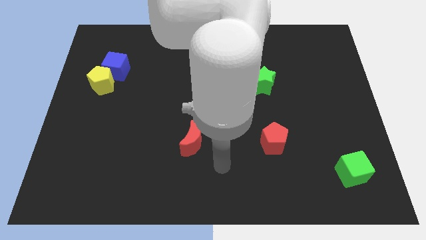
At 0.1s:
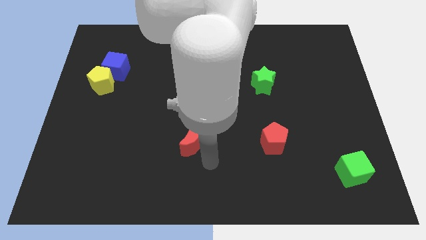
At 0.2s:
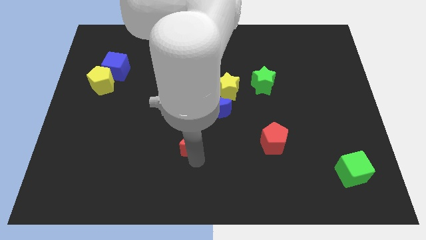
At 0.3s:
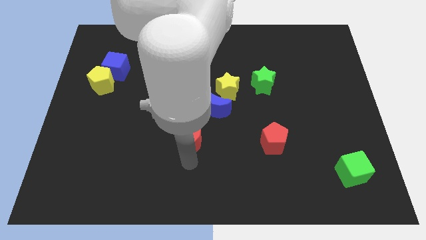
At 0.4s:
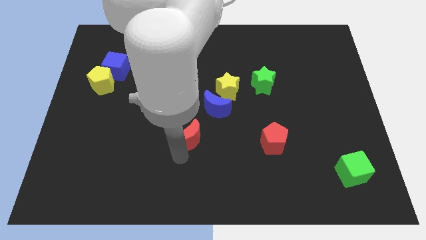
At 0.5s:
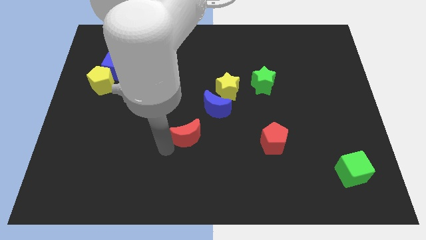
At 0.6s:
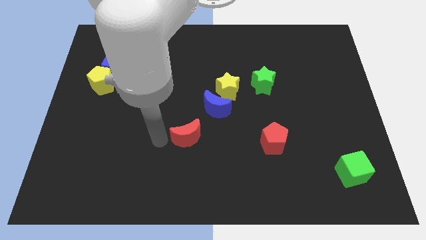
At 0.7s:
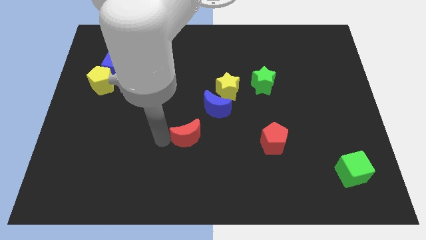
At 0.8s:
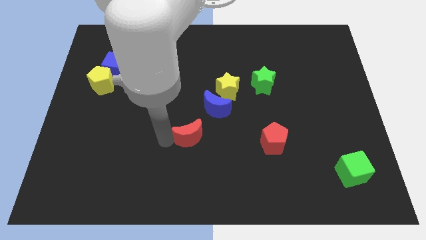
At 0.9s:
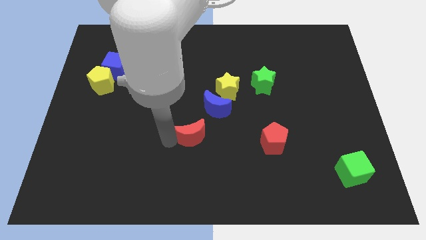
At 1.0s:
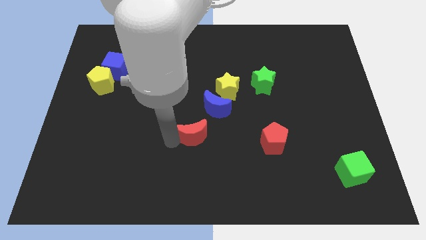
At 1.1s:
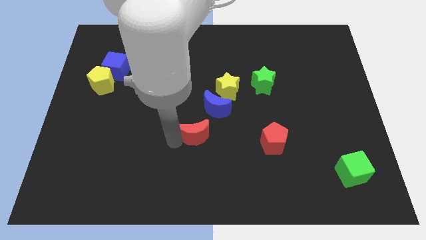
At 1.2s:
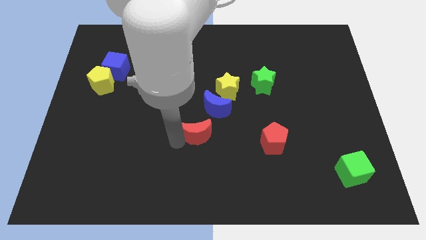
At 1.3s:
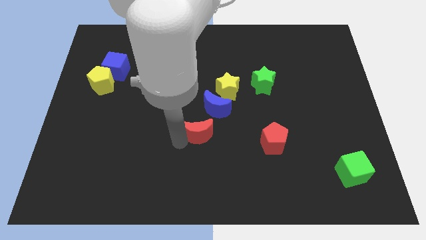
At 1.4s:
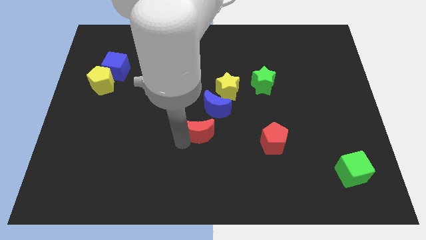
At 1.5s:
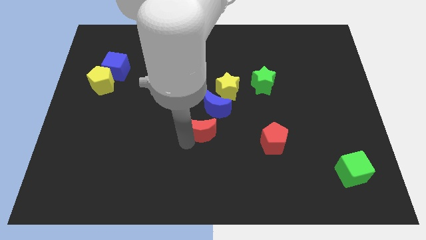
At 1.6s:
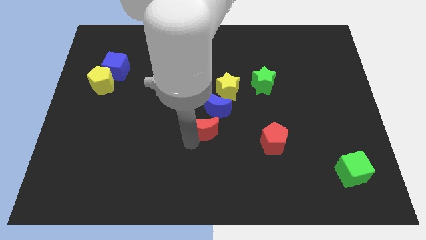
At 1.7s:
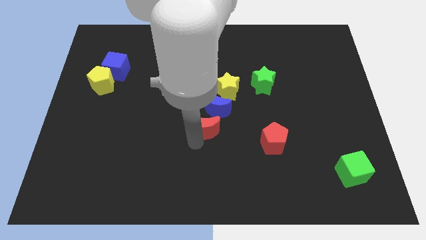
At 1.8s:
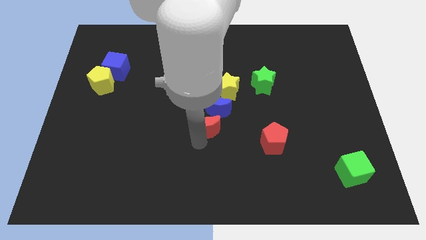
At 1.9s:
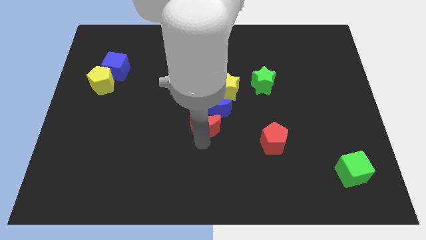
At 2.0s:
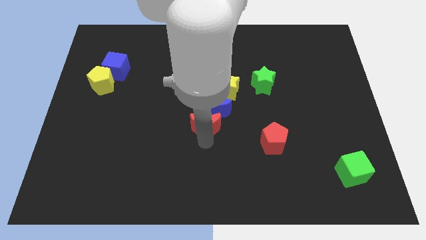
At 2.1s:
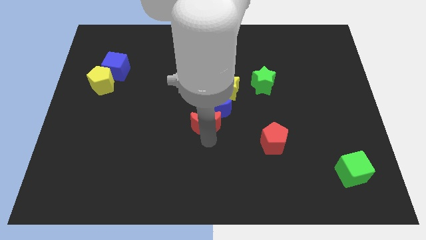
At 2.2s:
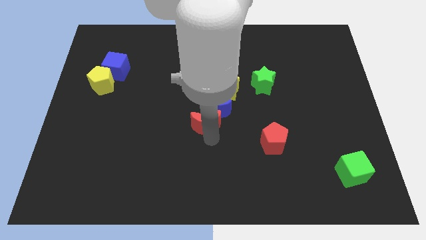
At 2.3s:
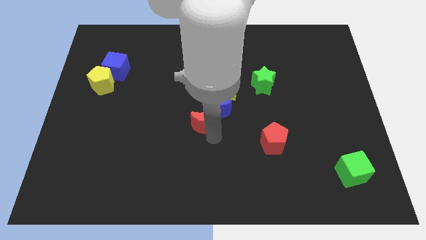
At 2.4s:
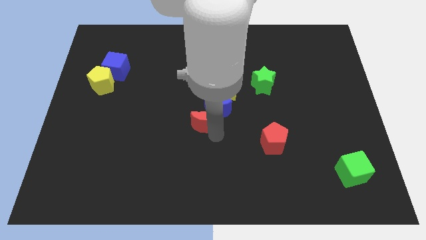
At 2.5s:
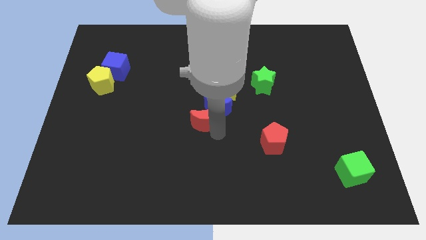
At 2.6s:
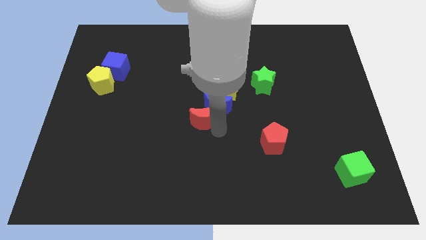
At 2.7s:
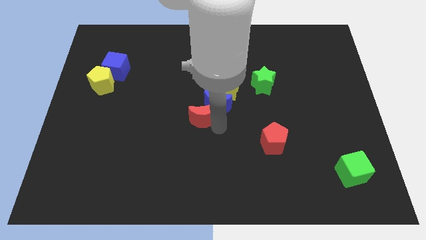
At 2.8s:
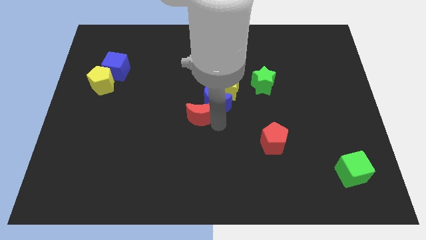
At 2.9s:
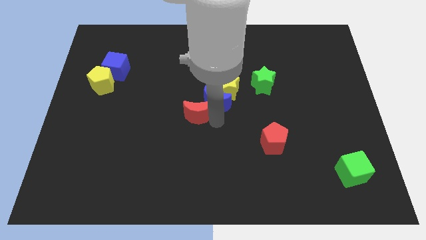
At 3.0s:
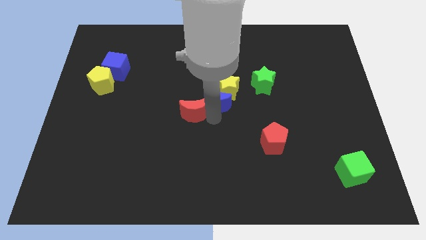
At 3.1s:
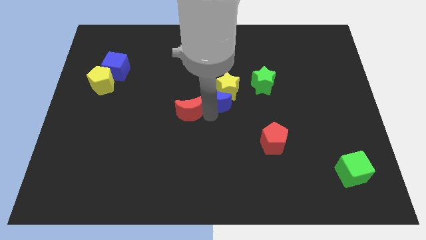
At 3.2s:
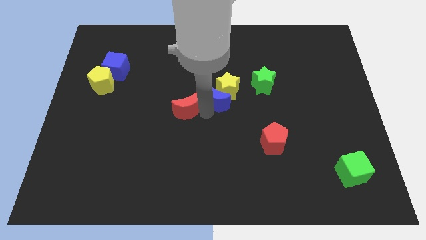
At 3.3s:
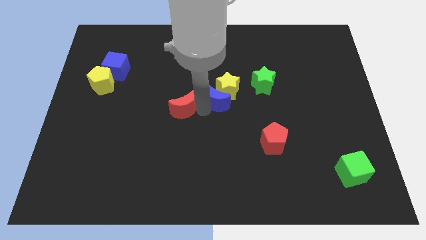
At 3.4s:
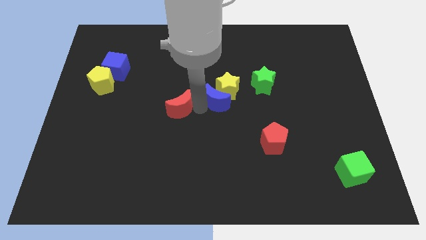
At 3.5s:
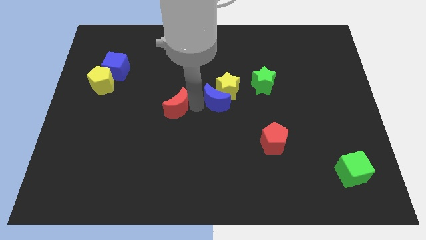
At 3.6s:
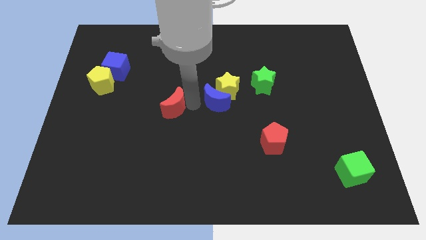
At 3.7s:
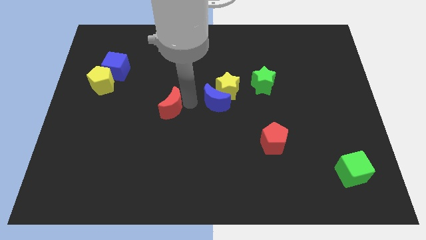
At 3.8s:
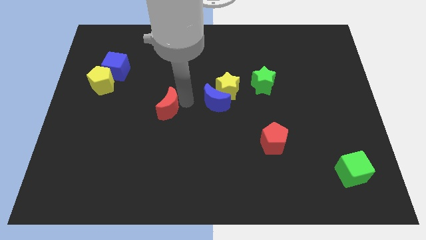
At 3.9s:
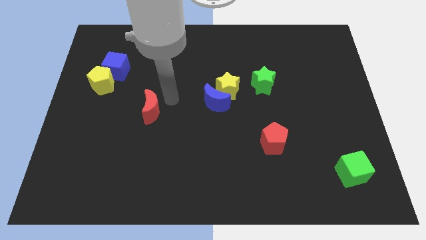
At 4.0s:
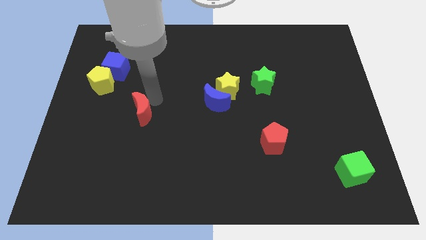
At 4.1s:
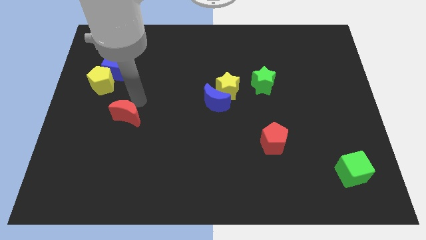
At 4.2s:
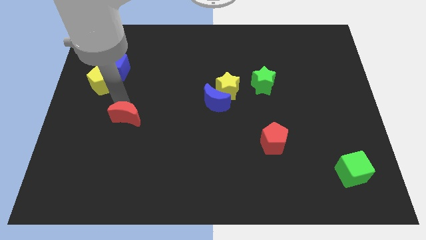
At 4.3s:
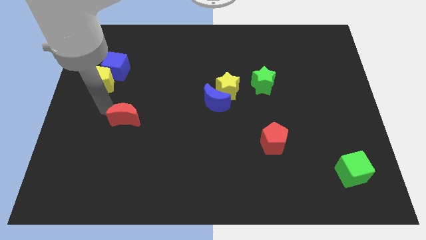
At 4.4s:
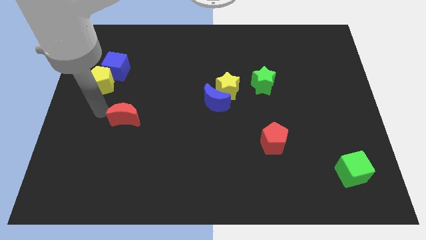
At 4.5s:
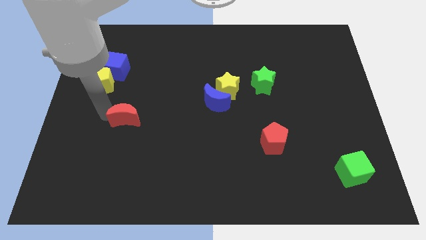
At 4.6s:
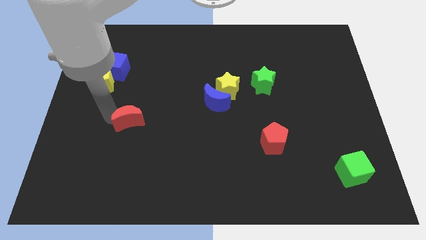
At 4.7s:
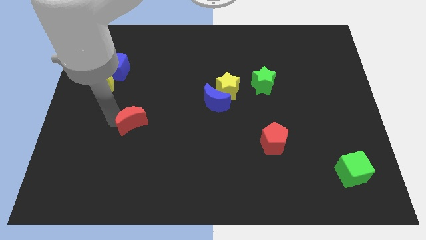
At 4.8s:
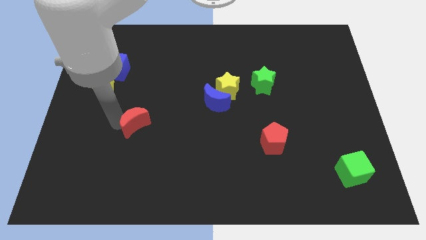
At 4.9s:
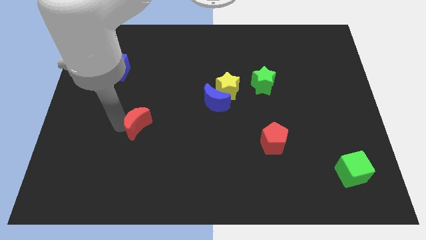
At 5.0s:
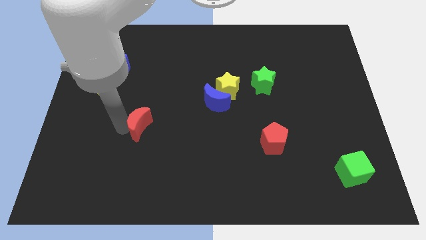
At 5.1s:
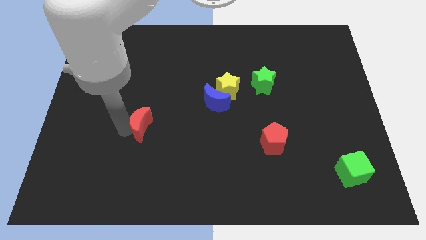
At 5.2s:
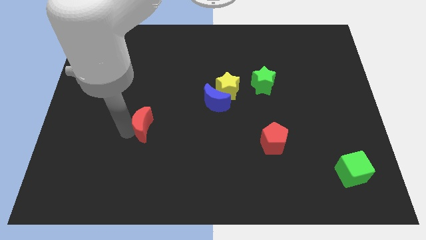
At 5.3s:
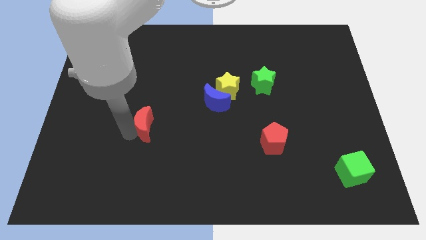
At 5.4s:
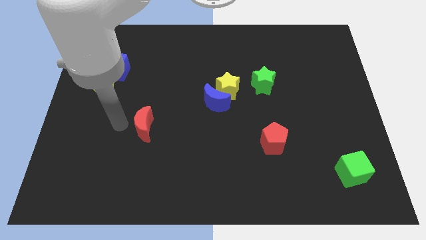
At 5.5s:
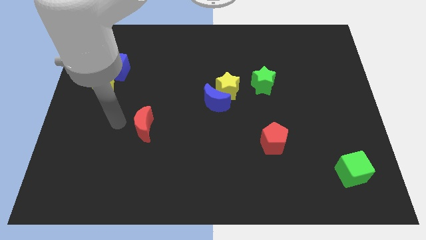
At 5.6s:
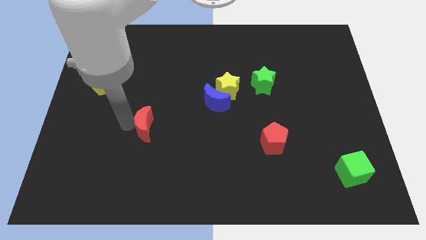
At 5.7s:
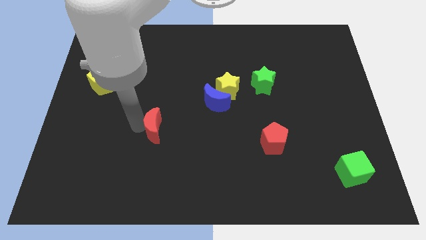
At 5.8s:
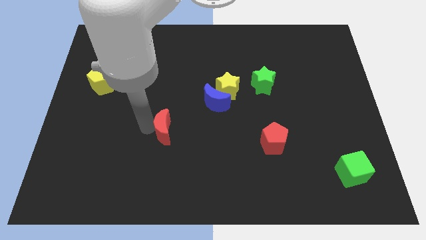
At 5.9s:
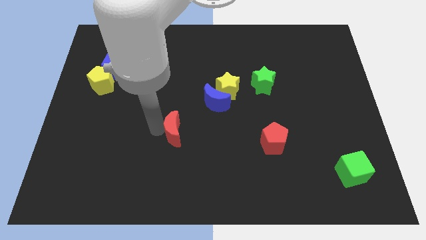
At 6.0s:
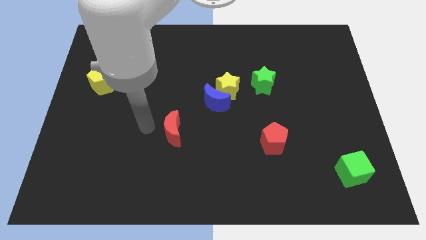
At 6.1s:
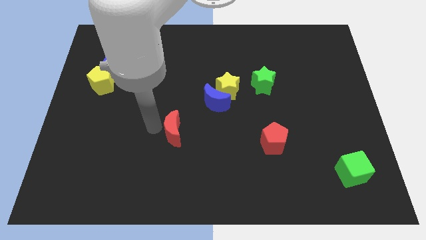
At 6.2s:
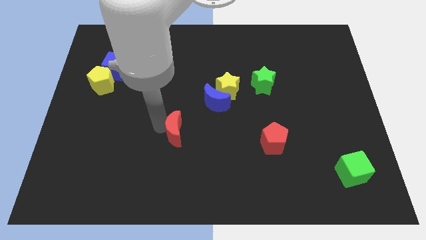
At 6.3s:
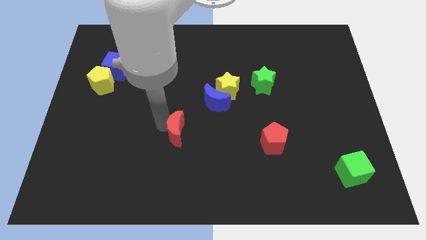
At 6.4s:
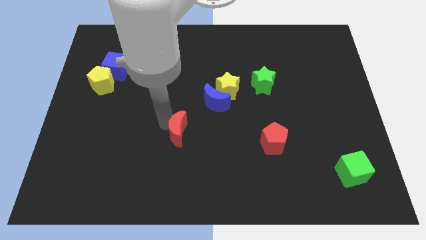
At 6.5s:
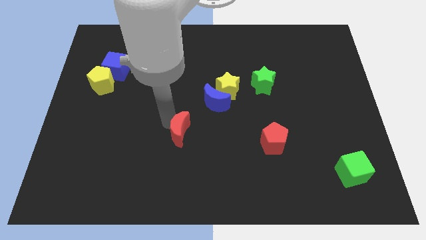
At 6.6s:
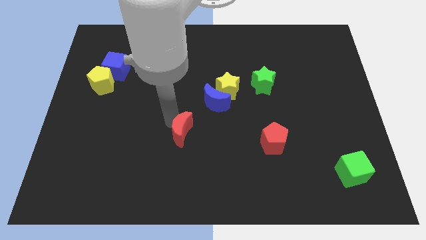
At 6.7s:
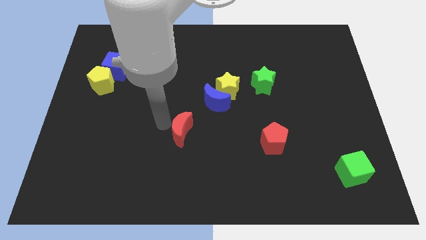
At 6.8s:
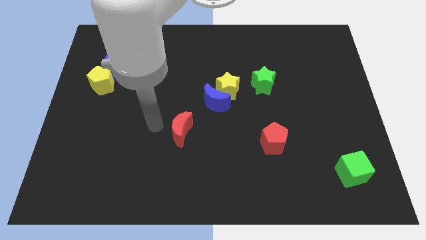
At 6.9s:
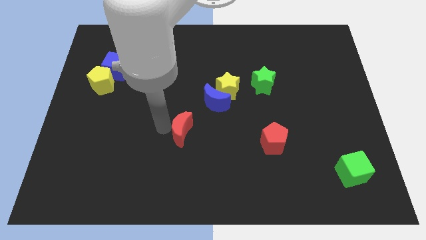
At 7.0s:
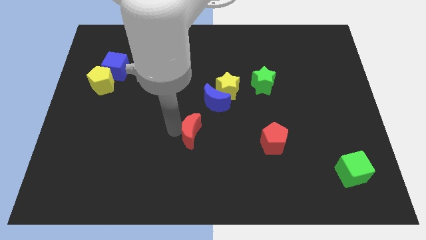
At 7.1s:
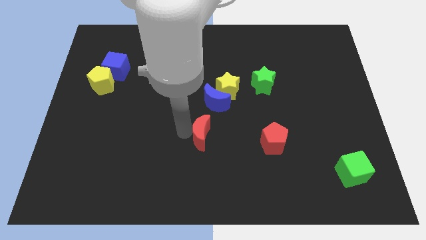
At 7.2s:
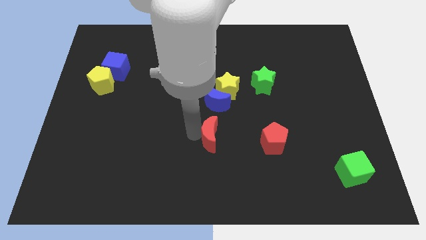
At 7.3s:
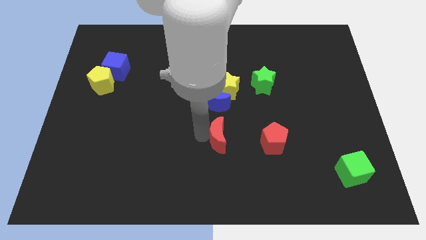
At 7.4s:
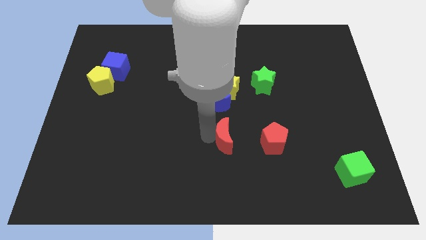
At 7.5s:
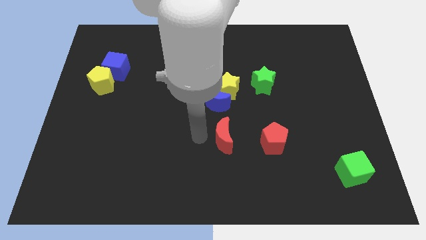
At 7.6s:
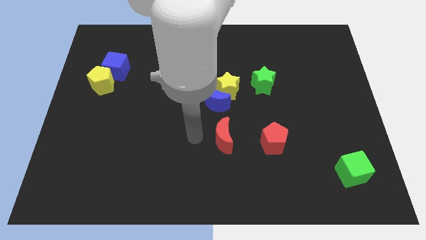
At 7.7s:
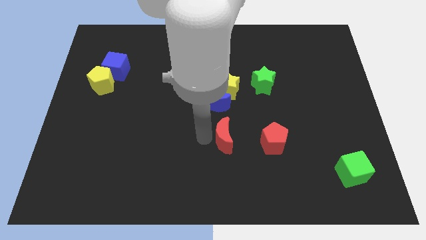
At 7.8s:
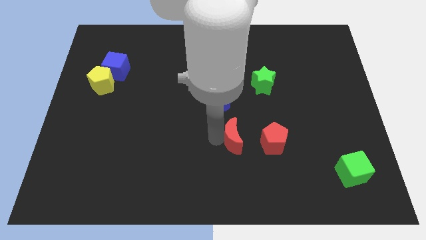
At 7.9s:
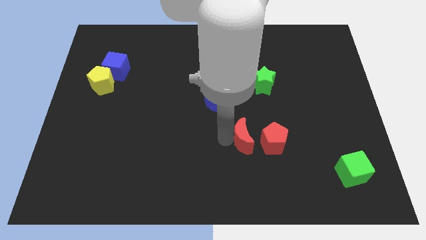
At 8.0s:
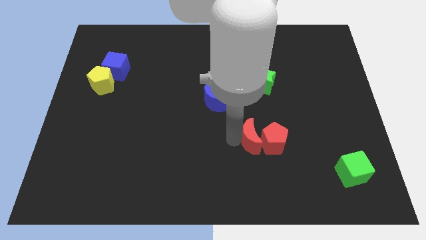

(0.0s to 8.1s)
slide the red moon to the red pentagon
